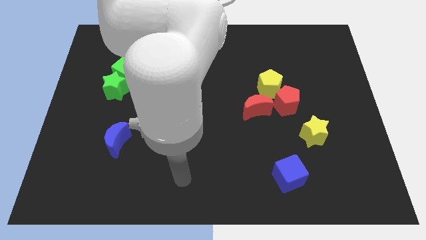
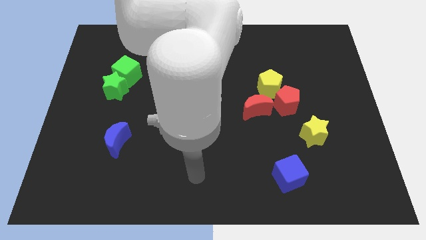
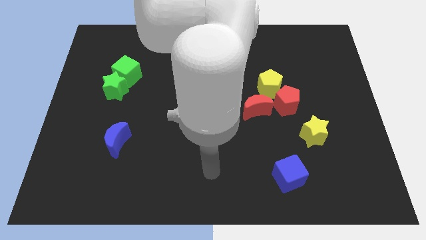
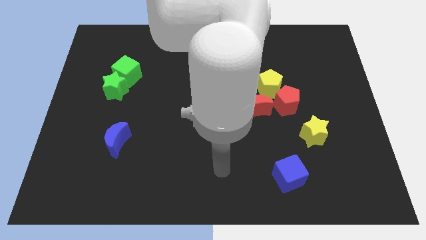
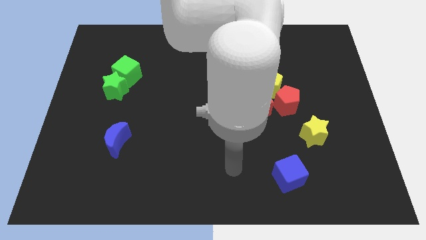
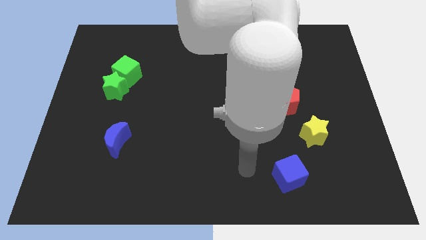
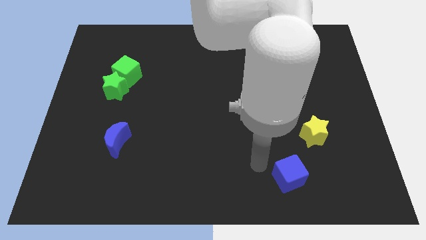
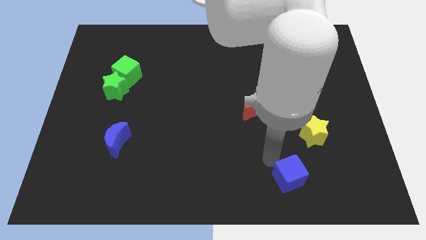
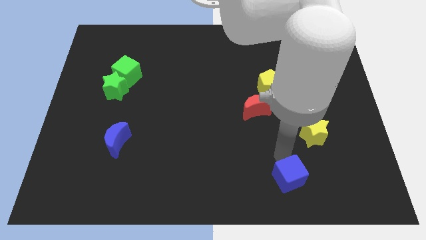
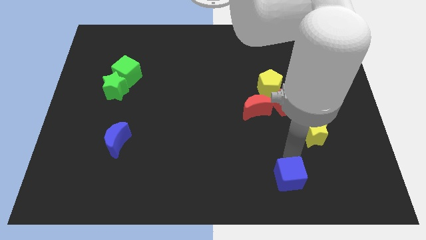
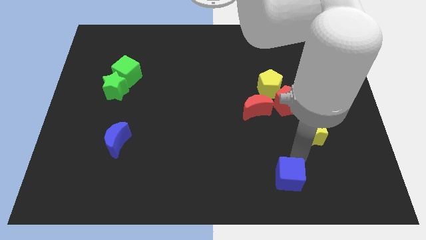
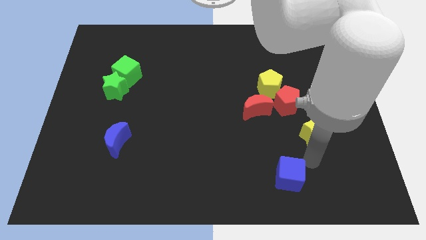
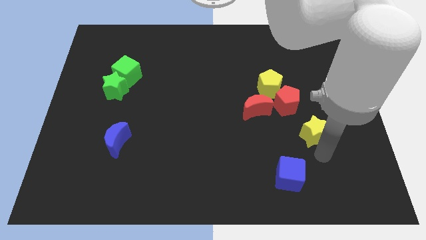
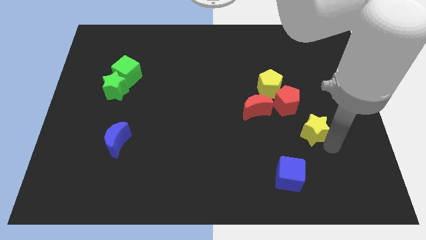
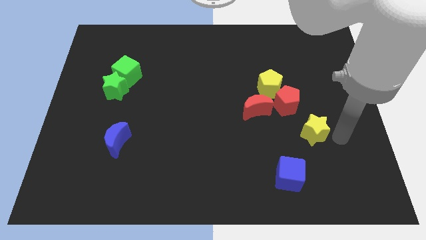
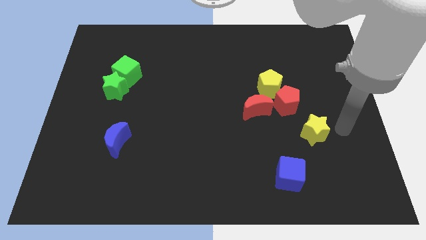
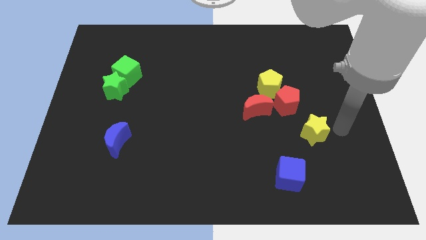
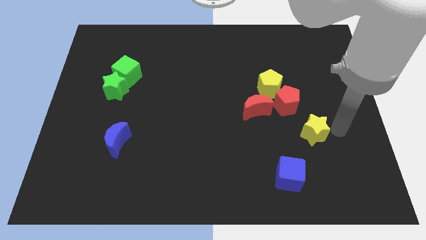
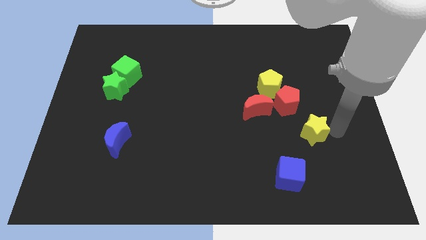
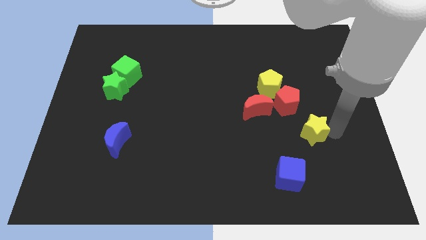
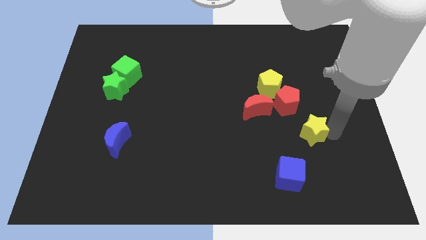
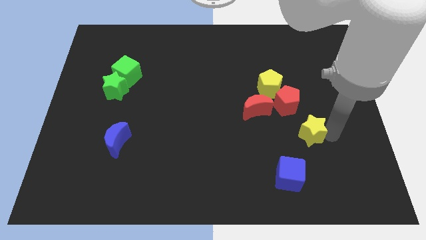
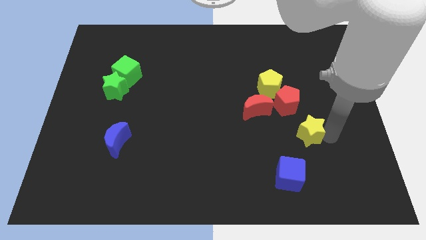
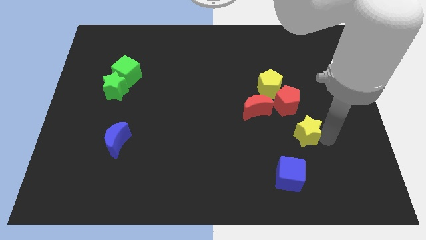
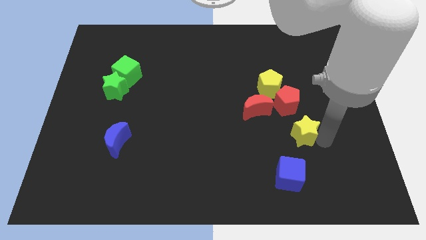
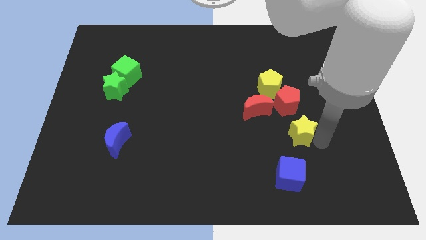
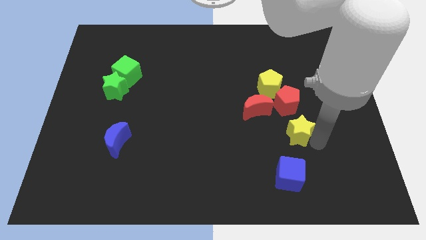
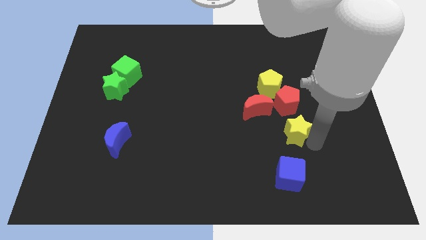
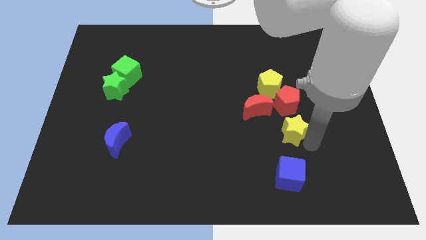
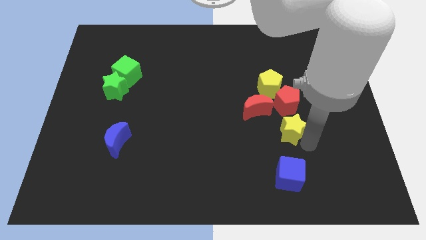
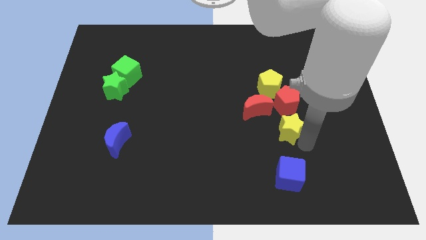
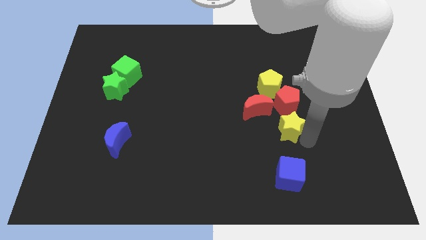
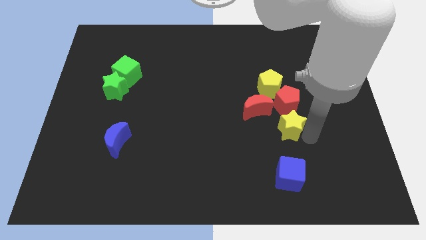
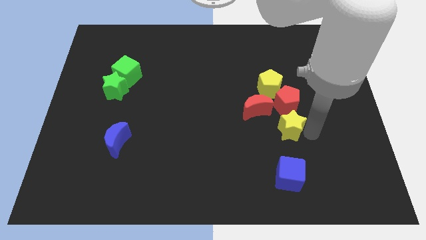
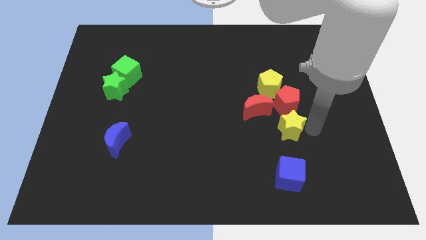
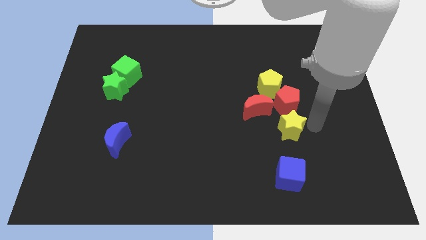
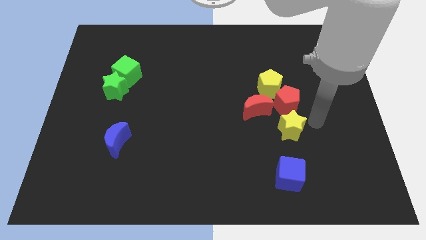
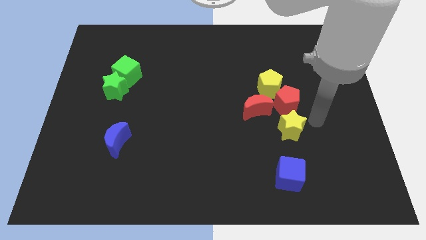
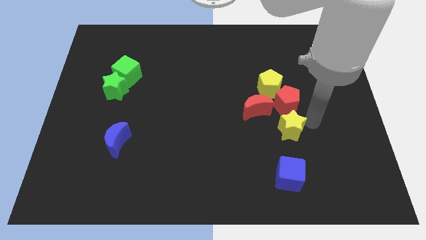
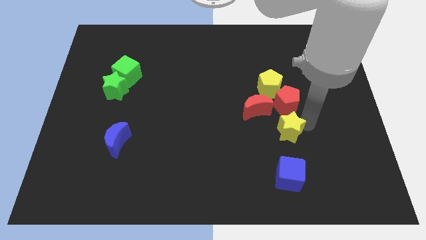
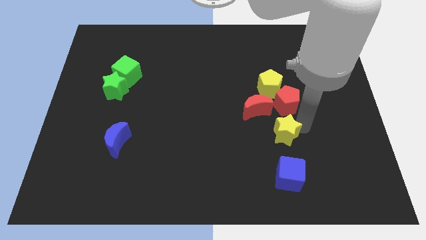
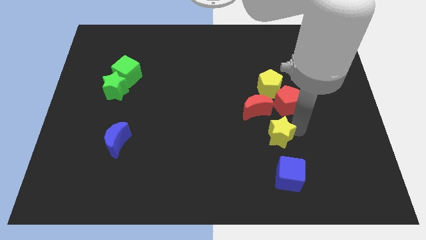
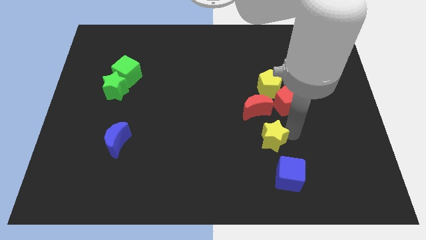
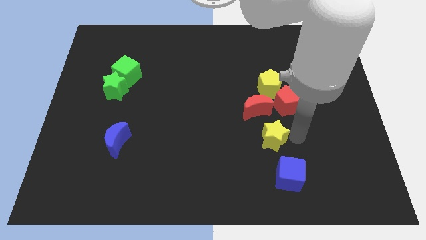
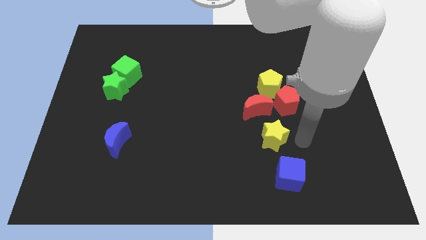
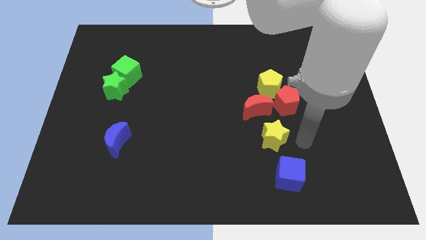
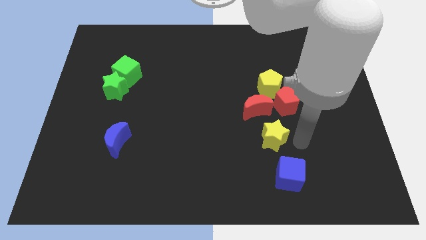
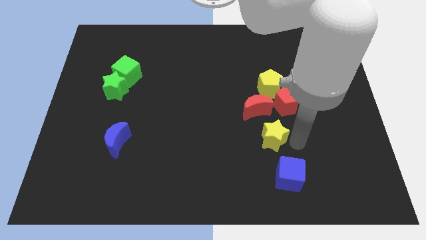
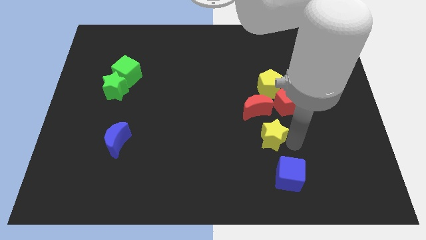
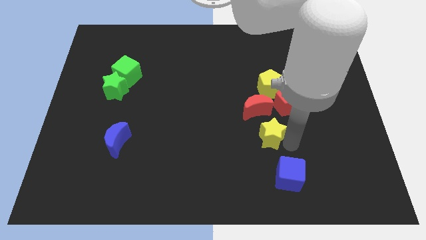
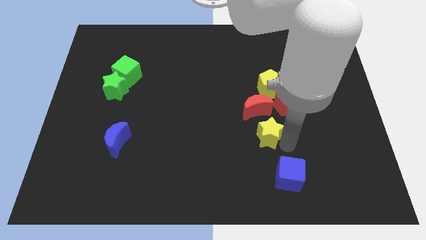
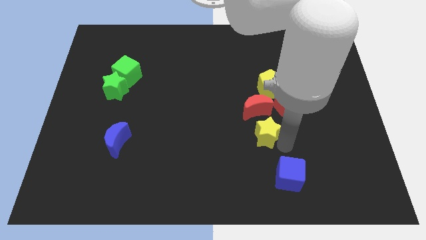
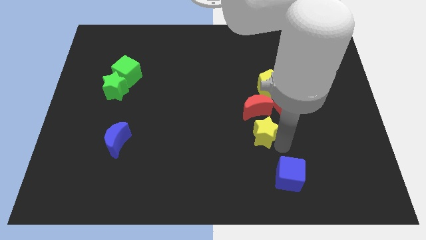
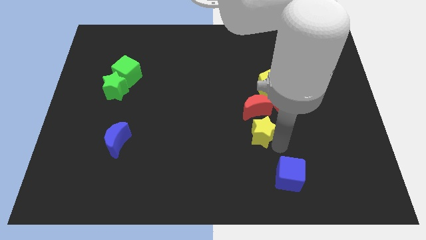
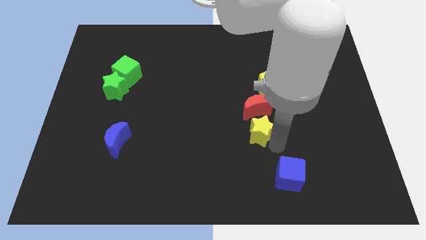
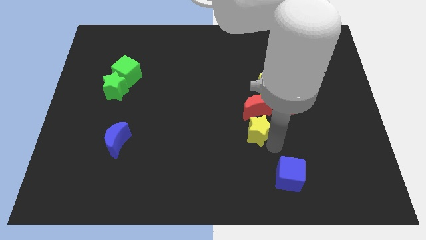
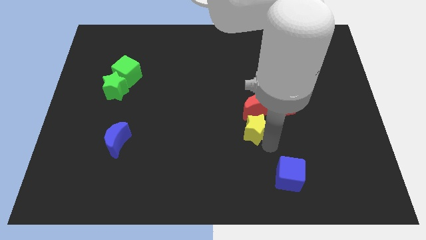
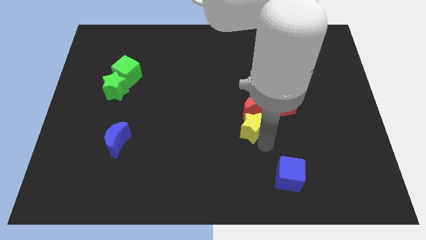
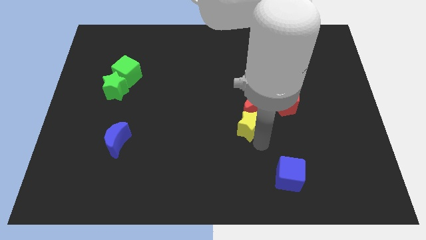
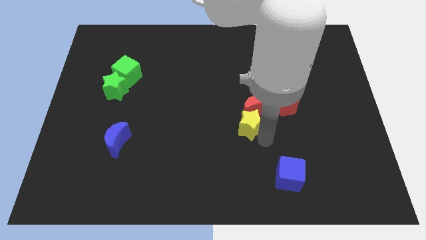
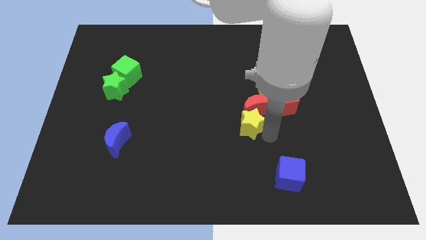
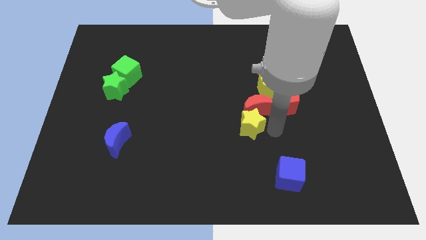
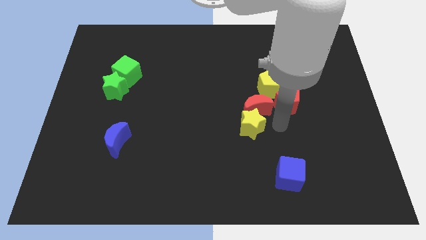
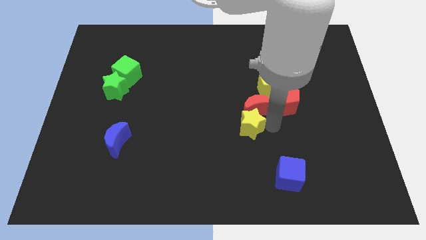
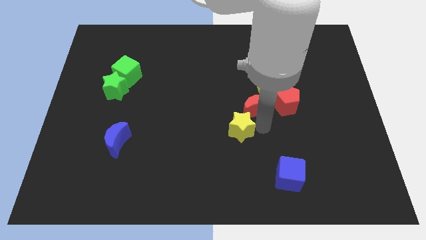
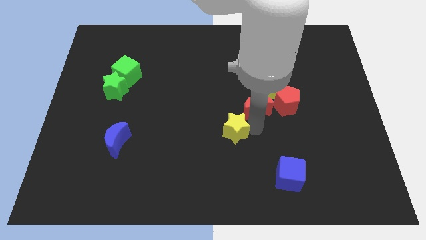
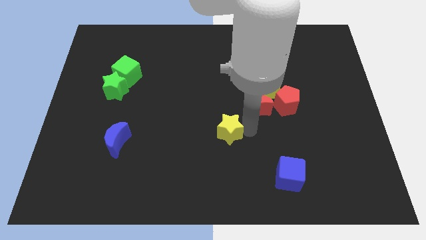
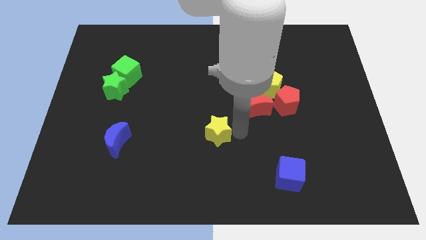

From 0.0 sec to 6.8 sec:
push the yellow star to the left

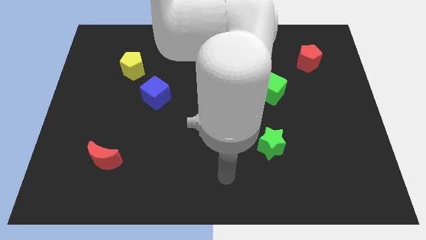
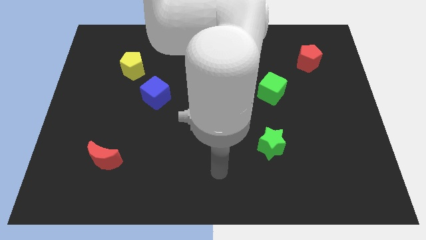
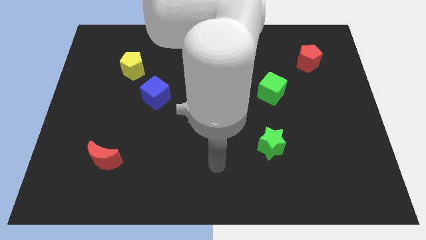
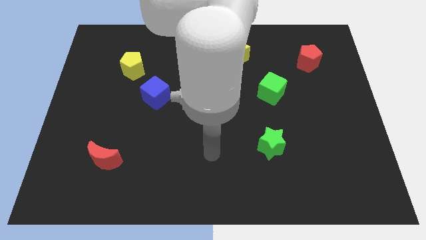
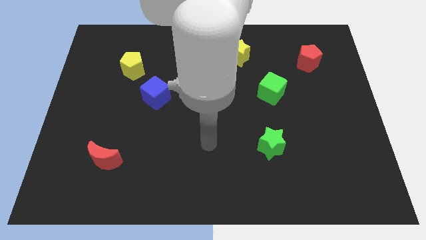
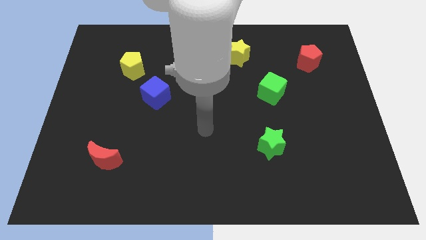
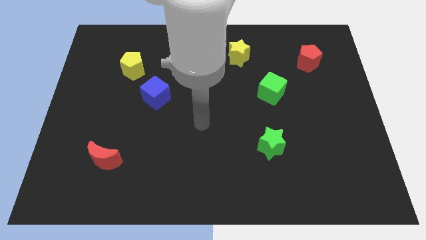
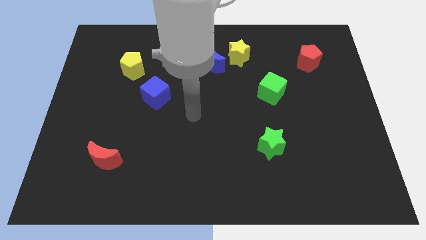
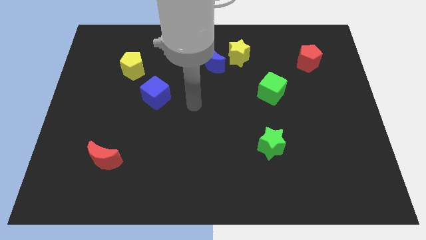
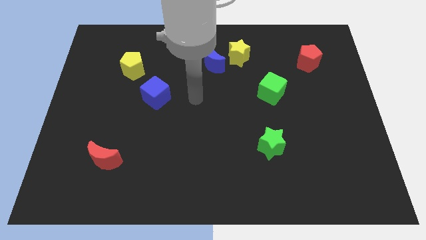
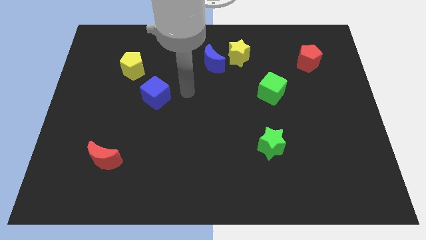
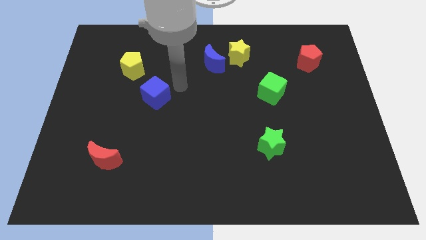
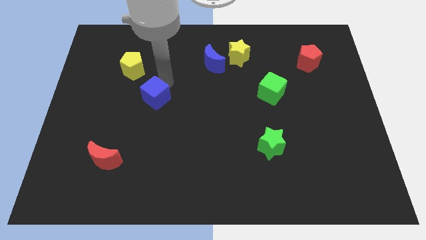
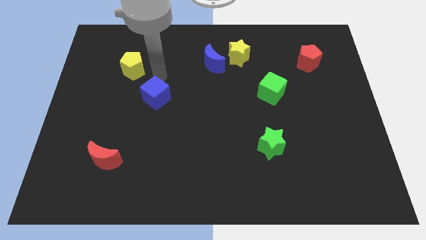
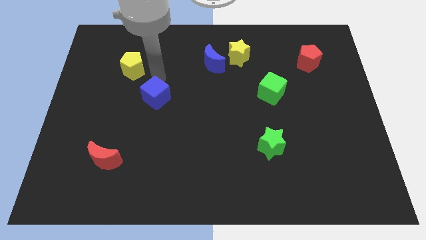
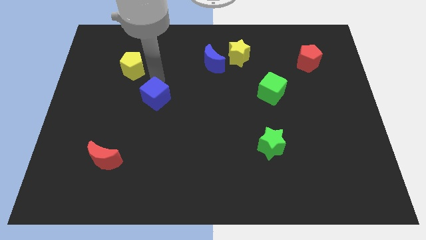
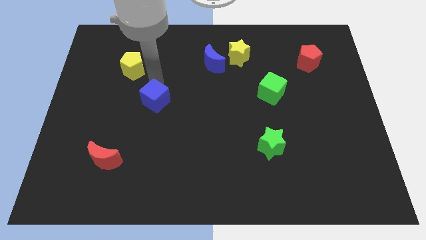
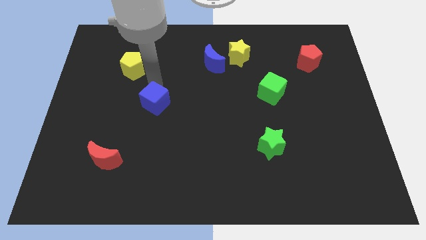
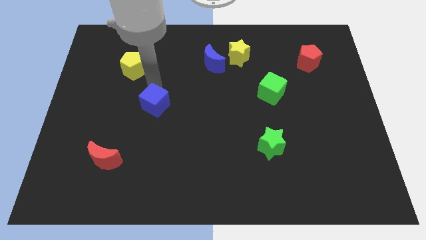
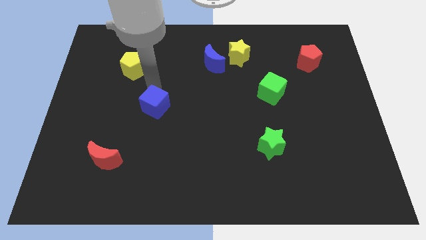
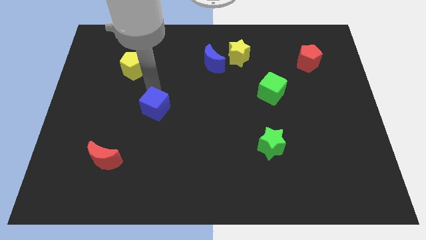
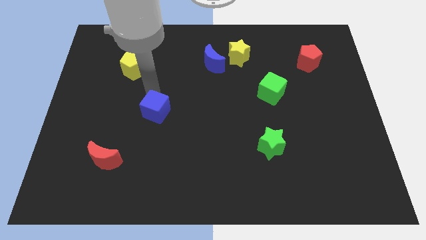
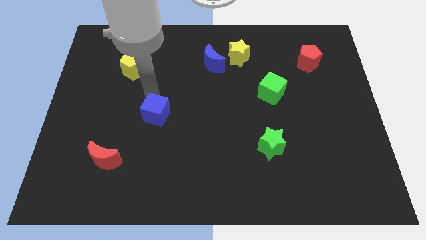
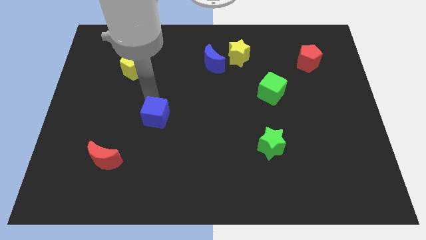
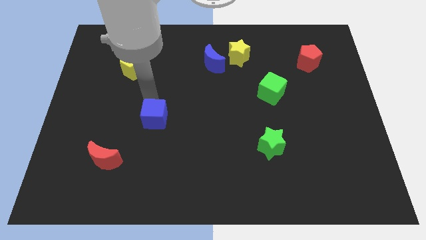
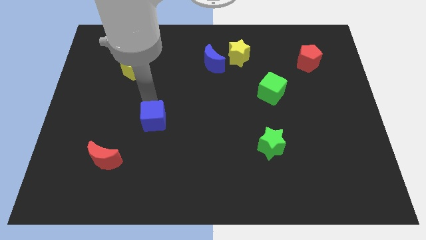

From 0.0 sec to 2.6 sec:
slightly move the blue cube downwards
